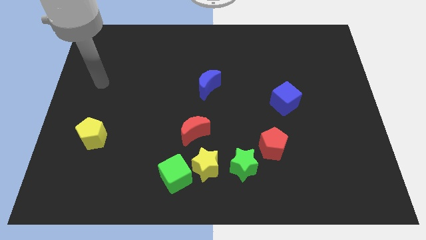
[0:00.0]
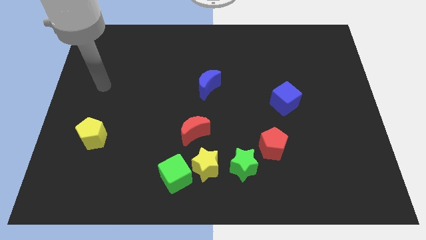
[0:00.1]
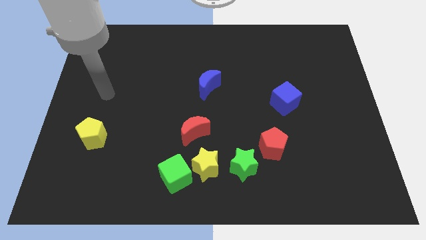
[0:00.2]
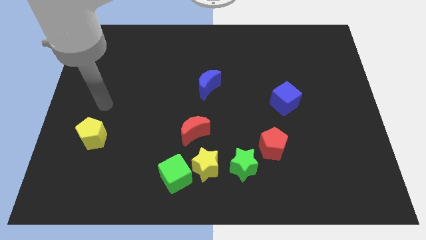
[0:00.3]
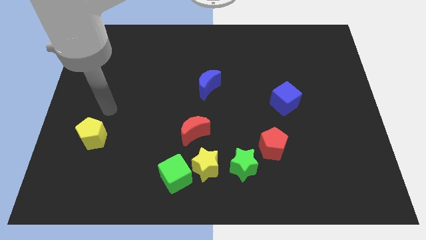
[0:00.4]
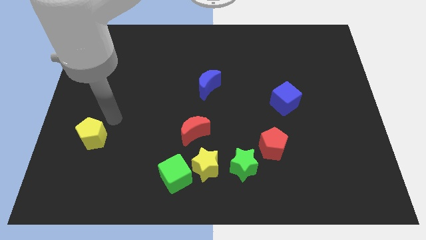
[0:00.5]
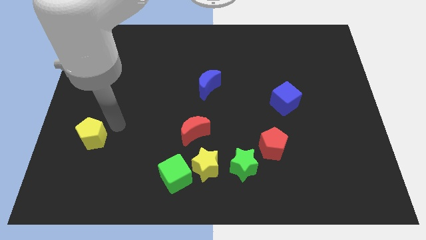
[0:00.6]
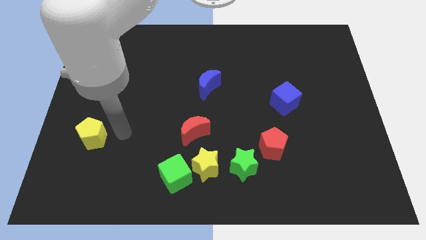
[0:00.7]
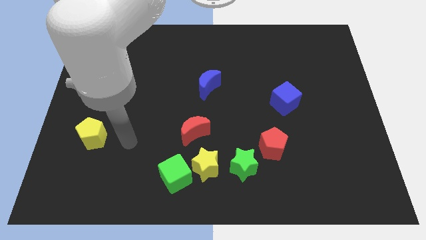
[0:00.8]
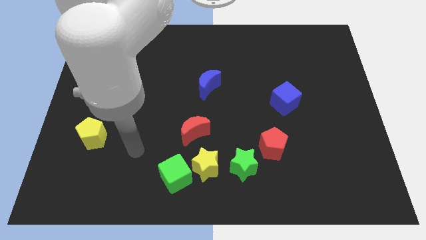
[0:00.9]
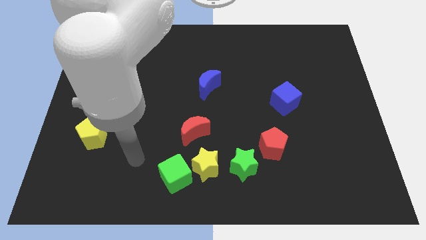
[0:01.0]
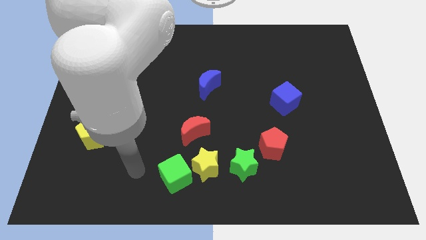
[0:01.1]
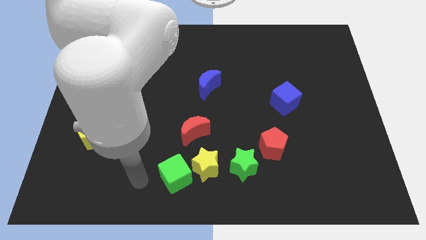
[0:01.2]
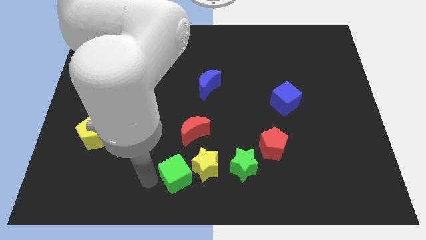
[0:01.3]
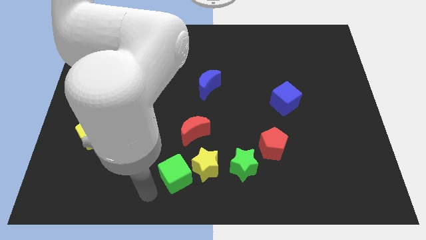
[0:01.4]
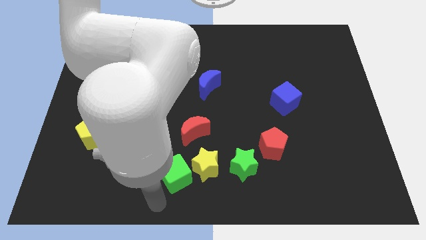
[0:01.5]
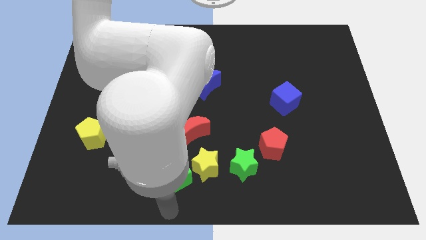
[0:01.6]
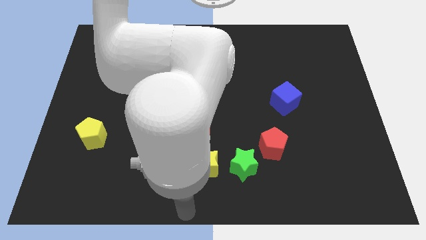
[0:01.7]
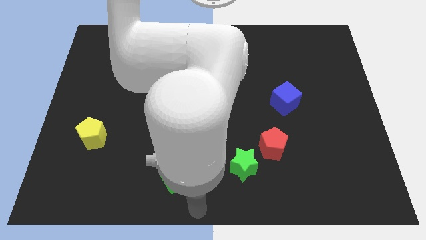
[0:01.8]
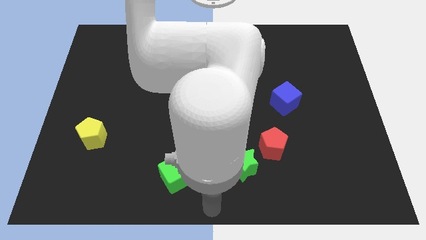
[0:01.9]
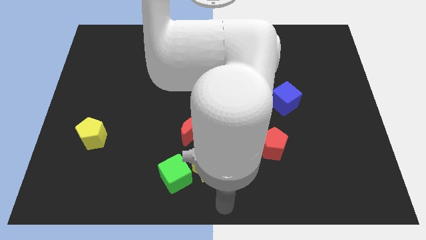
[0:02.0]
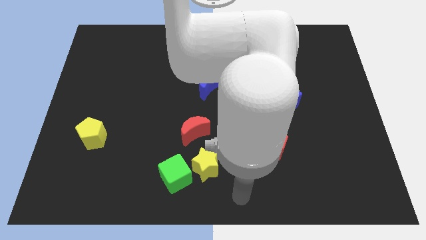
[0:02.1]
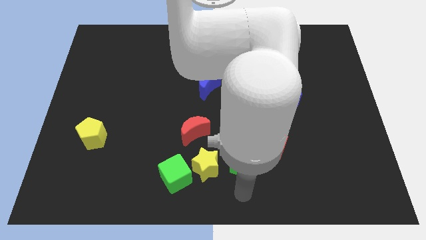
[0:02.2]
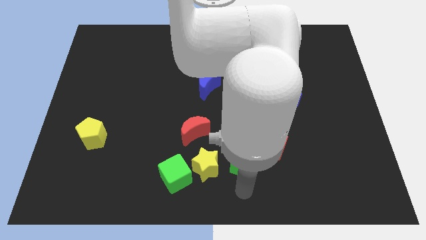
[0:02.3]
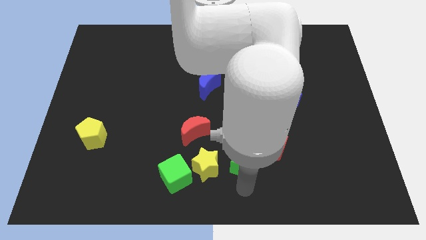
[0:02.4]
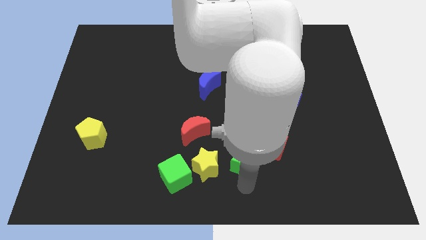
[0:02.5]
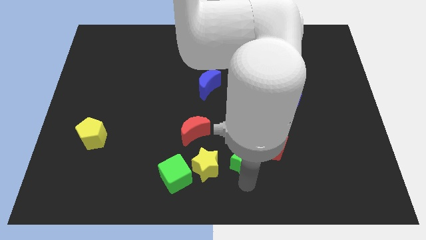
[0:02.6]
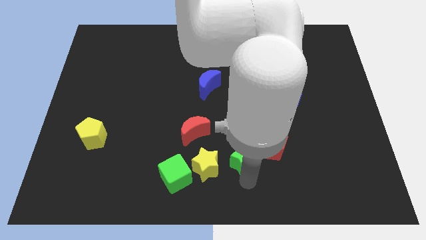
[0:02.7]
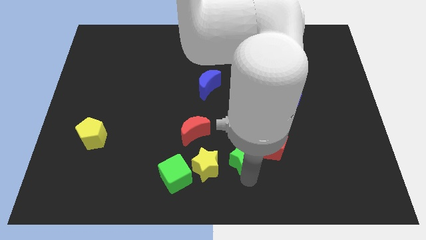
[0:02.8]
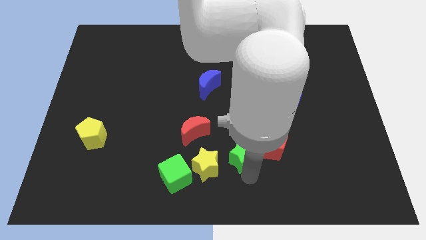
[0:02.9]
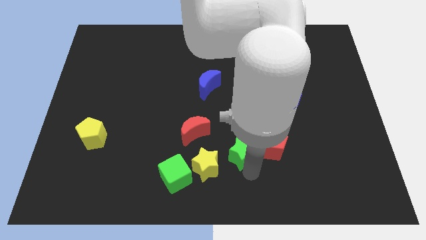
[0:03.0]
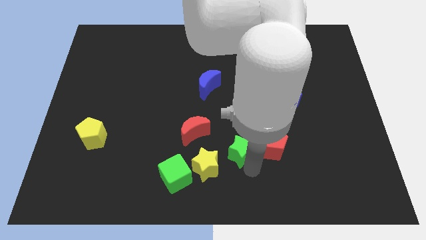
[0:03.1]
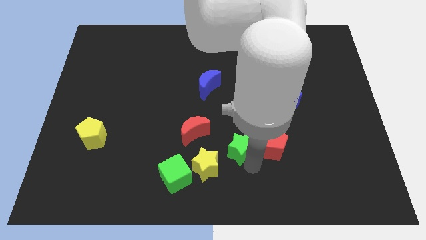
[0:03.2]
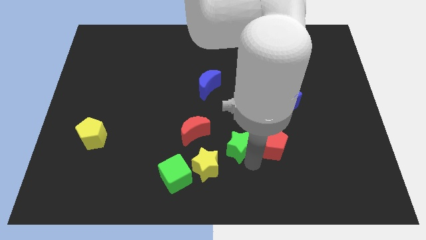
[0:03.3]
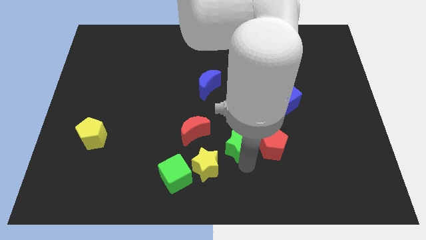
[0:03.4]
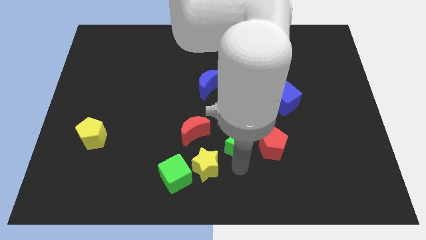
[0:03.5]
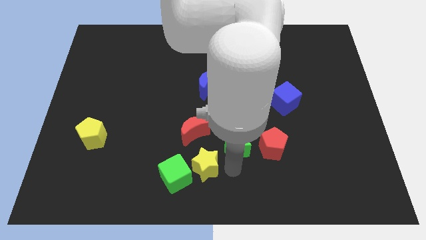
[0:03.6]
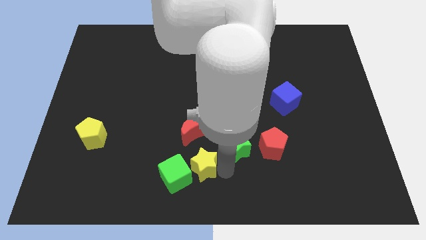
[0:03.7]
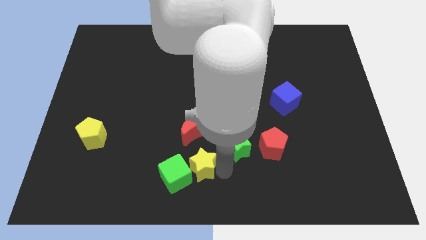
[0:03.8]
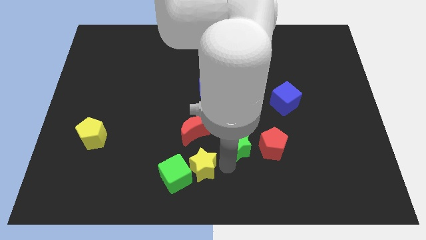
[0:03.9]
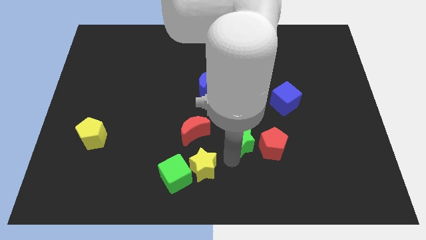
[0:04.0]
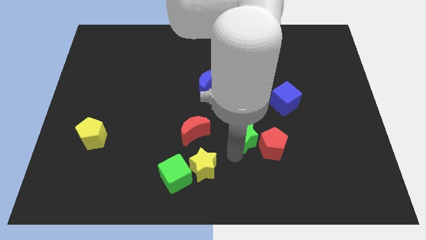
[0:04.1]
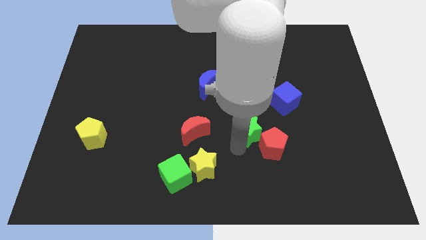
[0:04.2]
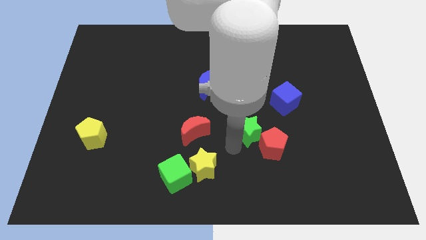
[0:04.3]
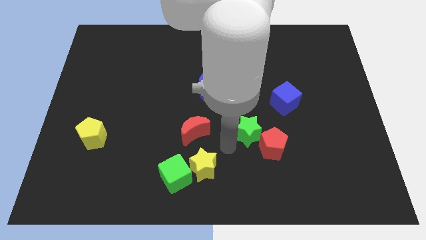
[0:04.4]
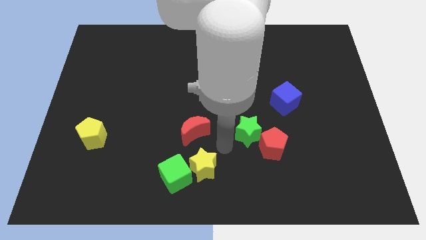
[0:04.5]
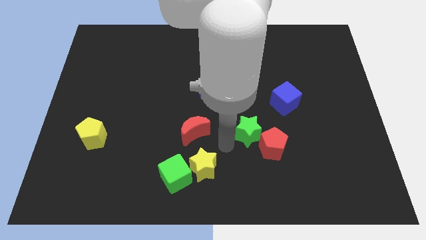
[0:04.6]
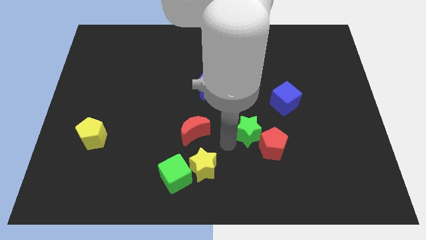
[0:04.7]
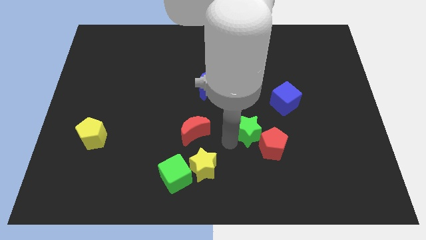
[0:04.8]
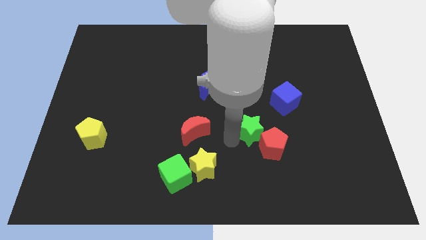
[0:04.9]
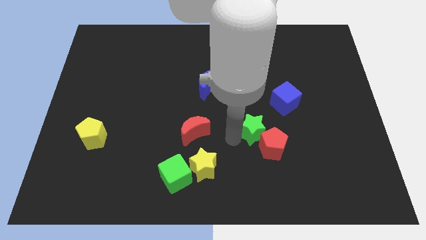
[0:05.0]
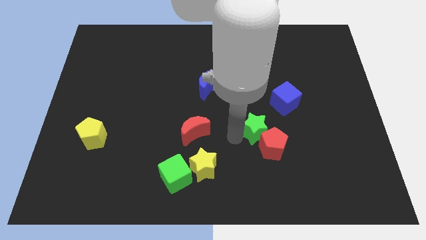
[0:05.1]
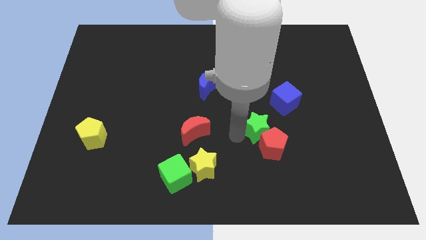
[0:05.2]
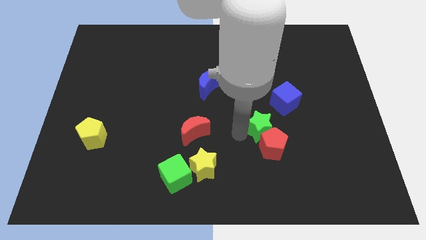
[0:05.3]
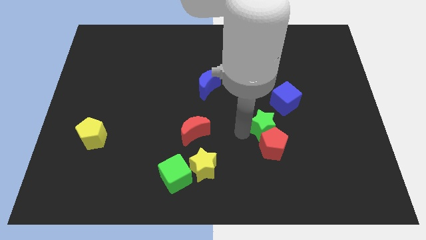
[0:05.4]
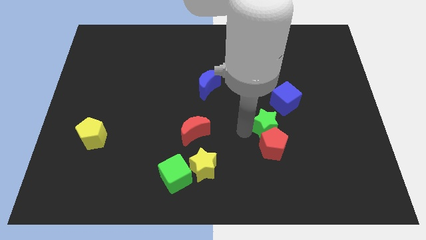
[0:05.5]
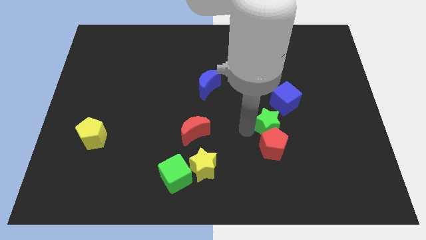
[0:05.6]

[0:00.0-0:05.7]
move the green star below the blue cube

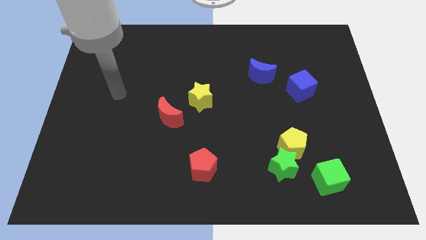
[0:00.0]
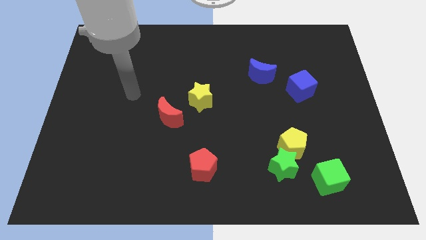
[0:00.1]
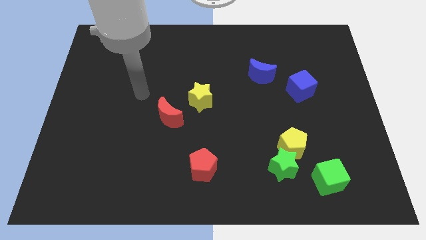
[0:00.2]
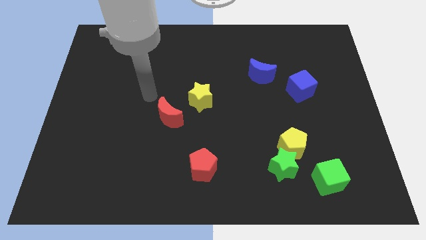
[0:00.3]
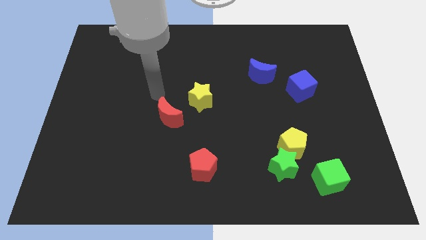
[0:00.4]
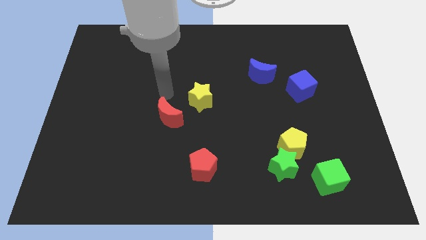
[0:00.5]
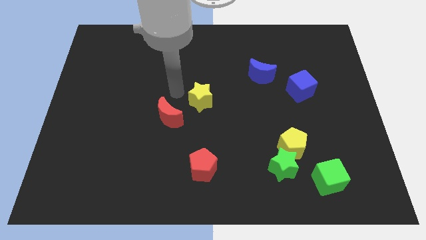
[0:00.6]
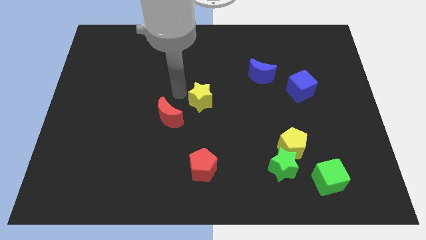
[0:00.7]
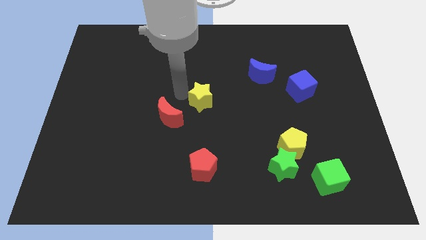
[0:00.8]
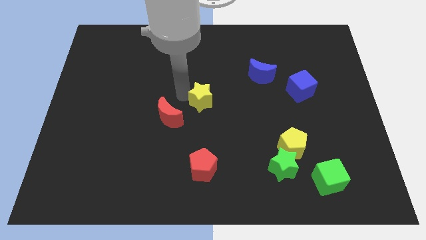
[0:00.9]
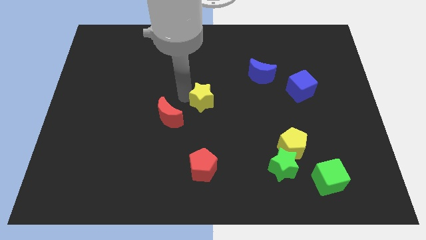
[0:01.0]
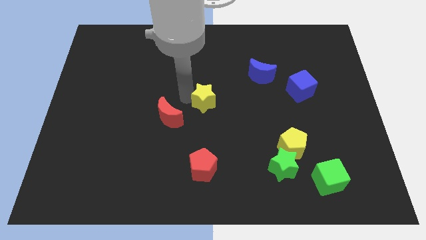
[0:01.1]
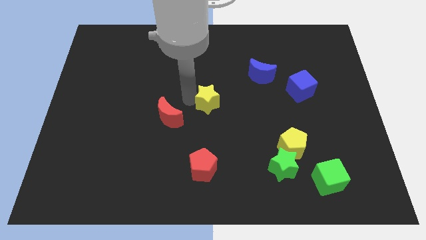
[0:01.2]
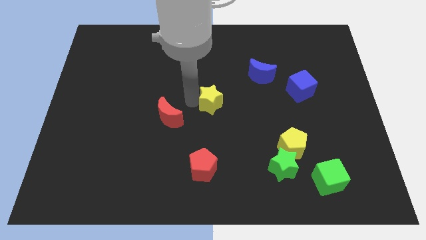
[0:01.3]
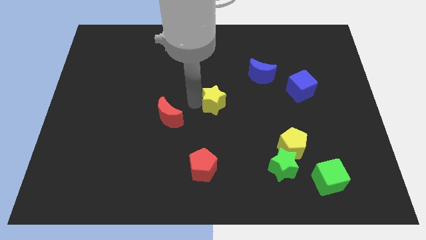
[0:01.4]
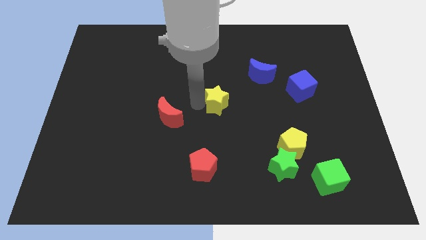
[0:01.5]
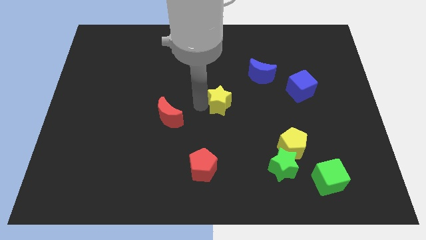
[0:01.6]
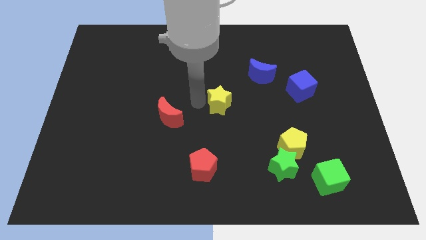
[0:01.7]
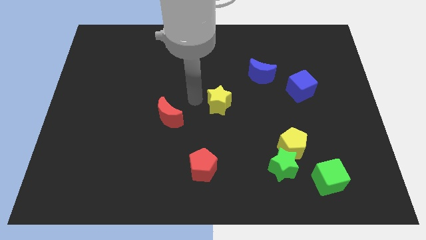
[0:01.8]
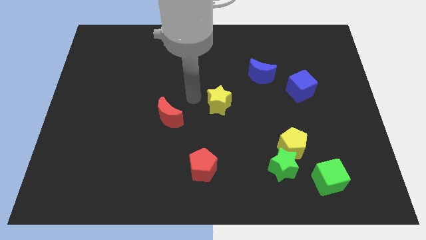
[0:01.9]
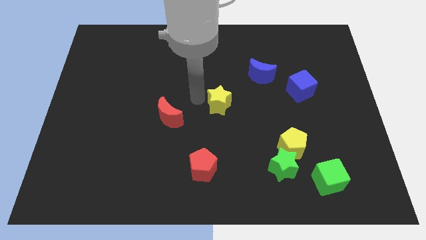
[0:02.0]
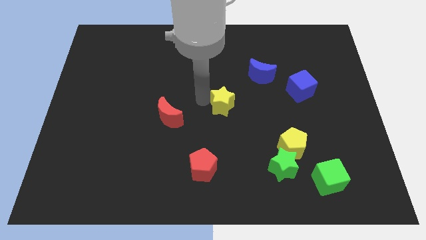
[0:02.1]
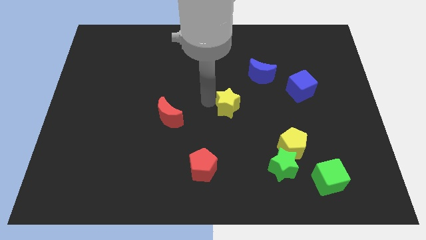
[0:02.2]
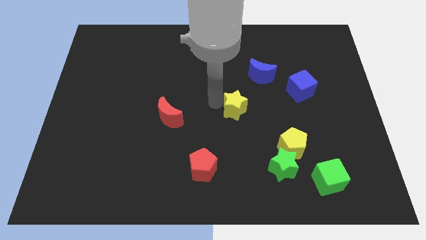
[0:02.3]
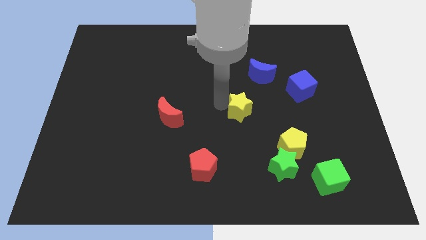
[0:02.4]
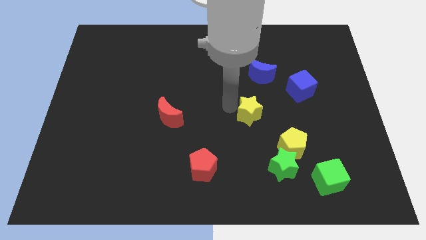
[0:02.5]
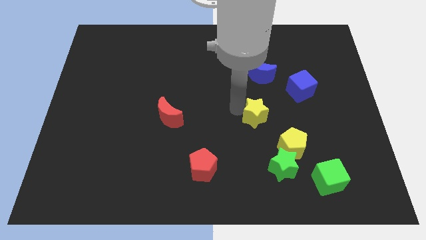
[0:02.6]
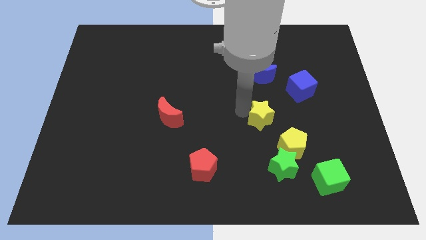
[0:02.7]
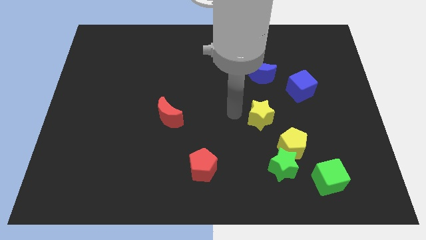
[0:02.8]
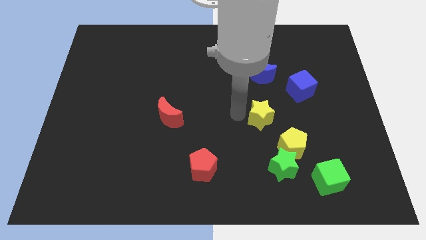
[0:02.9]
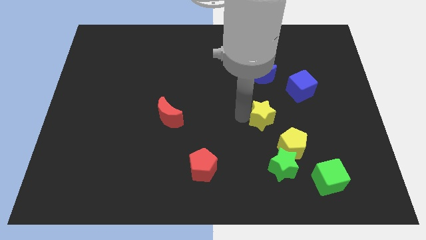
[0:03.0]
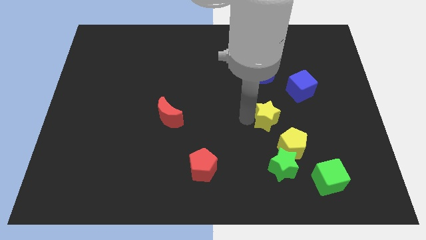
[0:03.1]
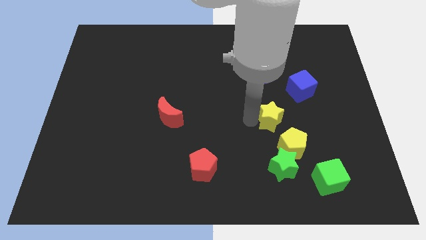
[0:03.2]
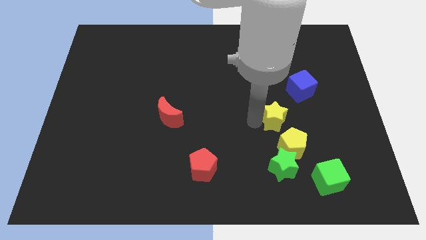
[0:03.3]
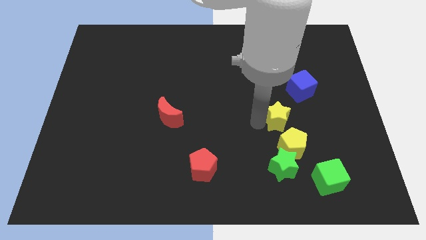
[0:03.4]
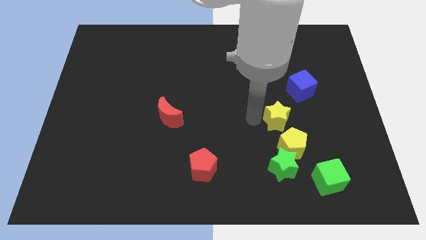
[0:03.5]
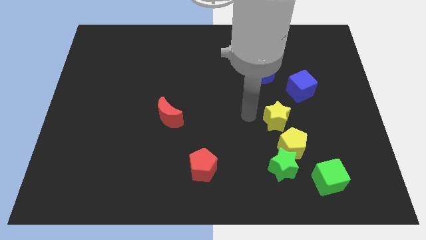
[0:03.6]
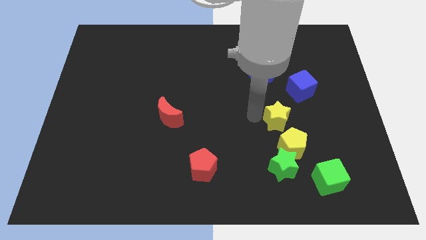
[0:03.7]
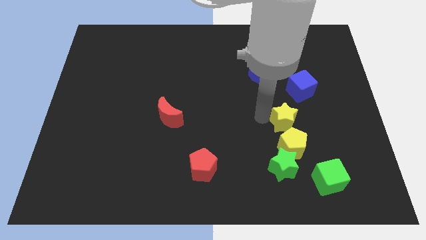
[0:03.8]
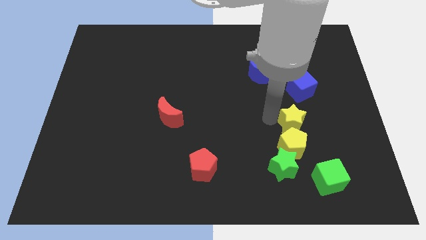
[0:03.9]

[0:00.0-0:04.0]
move the yellow star to the bottom of the blue cube
